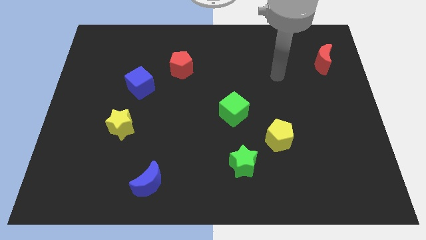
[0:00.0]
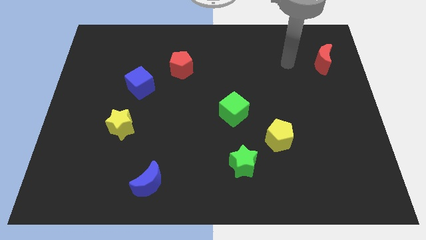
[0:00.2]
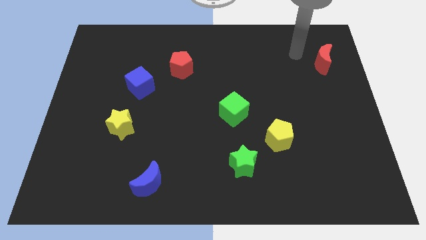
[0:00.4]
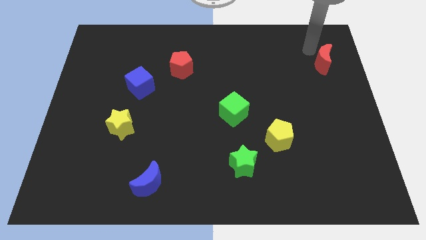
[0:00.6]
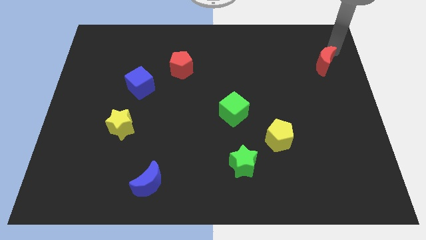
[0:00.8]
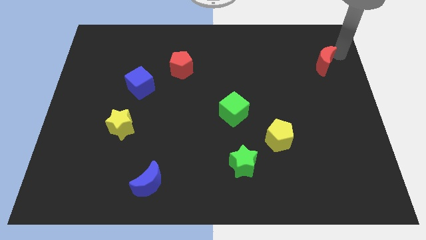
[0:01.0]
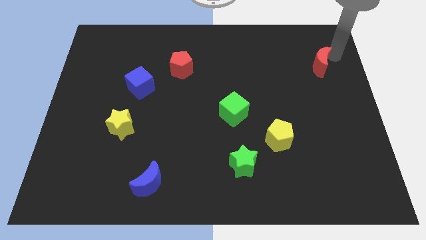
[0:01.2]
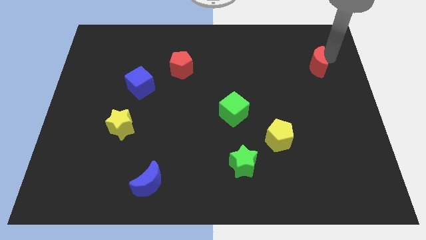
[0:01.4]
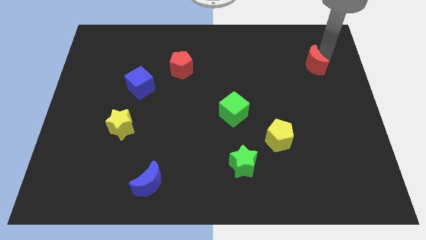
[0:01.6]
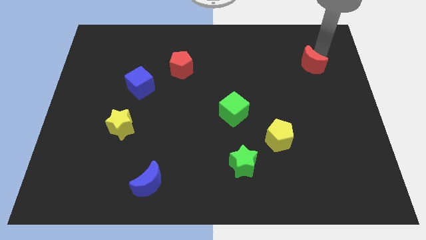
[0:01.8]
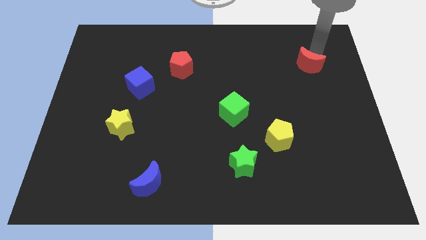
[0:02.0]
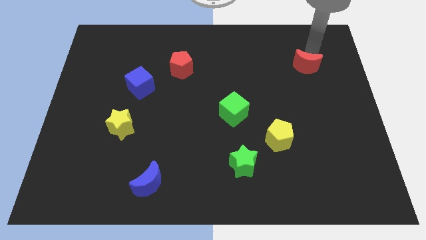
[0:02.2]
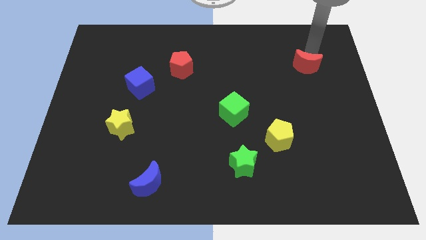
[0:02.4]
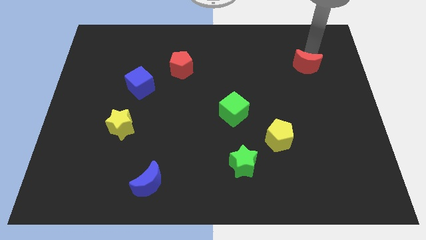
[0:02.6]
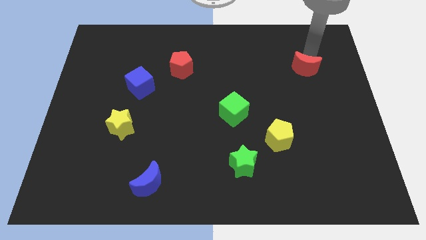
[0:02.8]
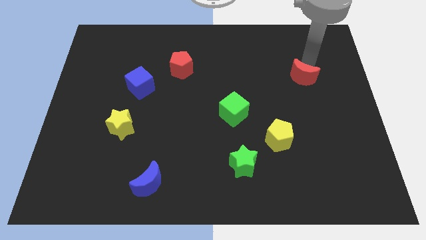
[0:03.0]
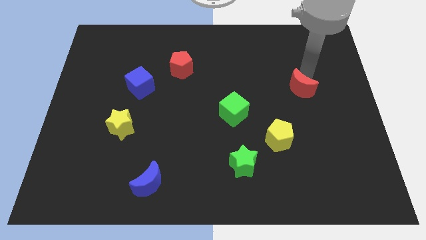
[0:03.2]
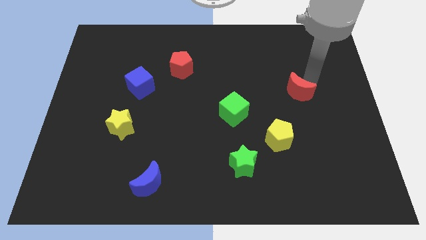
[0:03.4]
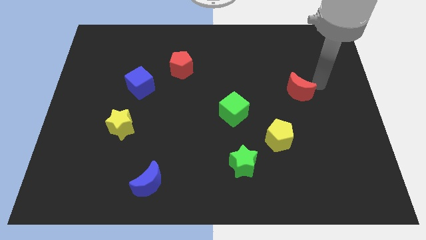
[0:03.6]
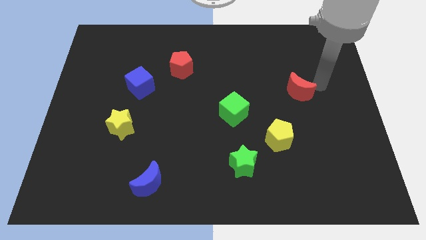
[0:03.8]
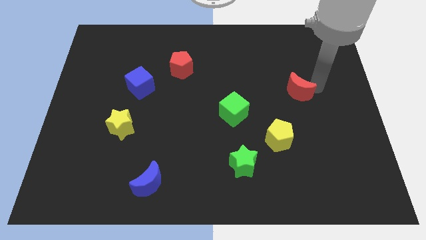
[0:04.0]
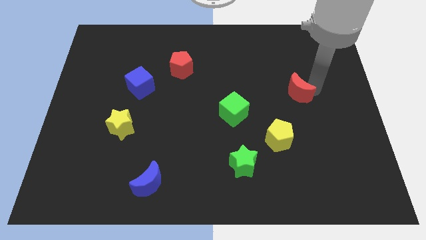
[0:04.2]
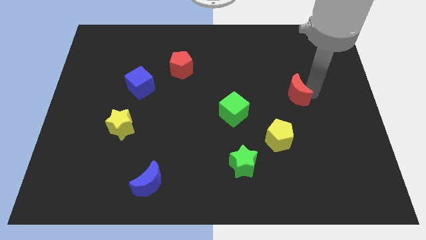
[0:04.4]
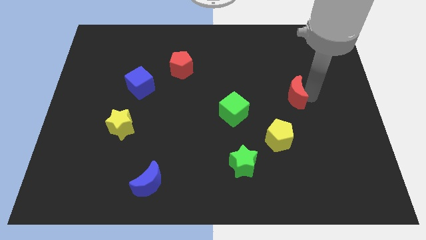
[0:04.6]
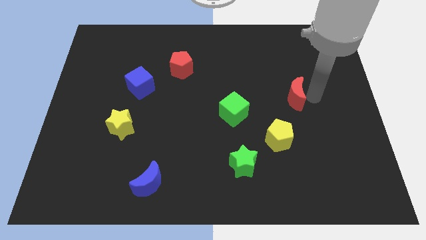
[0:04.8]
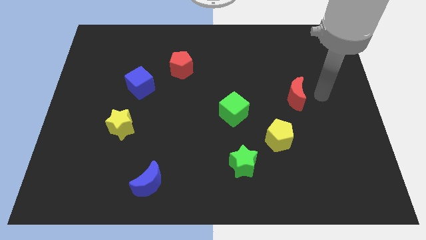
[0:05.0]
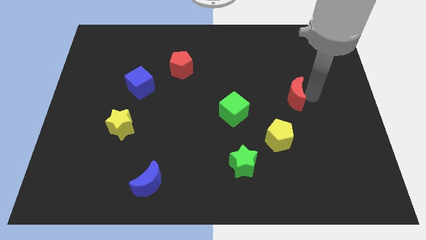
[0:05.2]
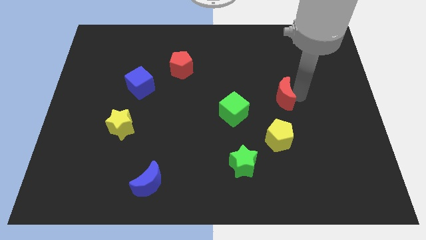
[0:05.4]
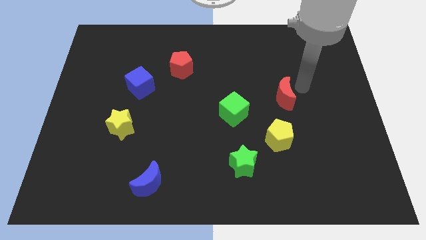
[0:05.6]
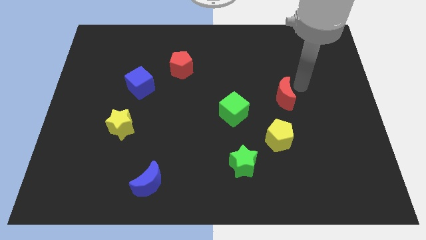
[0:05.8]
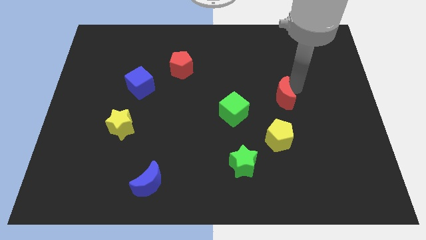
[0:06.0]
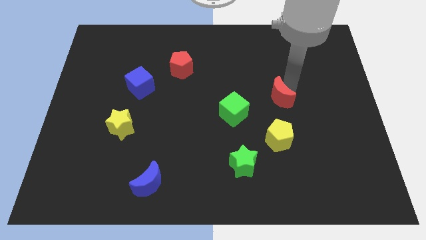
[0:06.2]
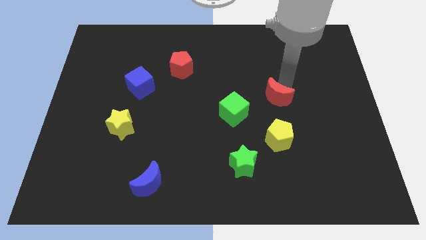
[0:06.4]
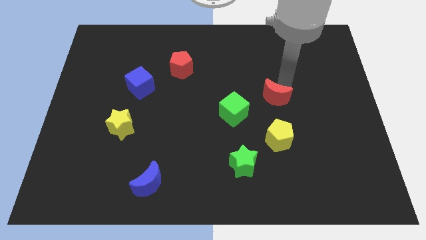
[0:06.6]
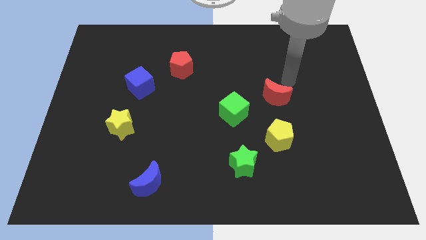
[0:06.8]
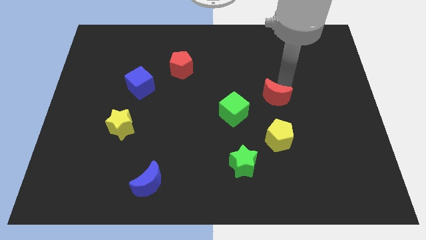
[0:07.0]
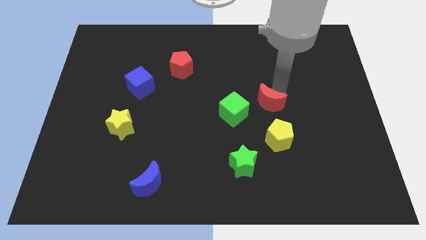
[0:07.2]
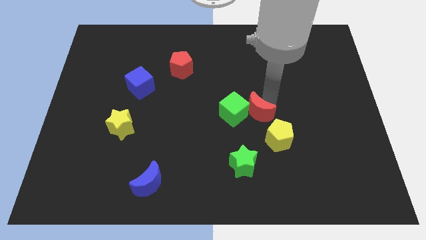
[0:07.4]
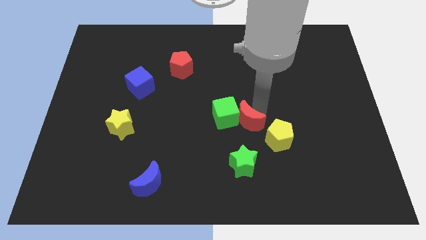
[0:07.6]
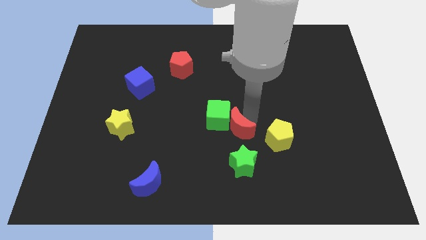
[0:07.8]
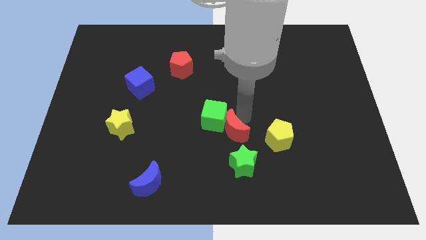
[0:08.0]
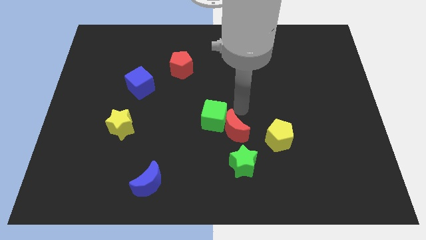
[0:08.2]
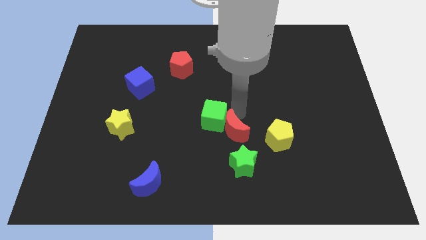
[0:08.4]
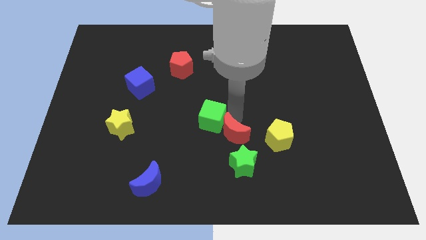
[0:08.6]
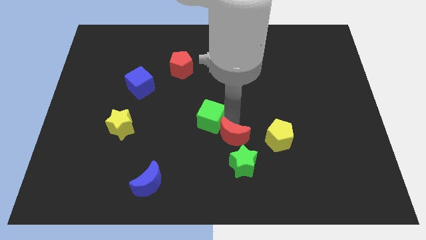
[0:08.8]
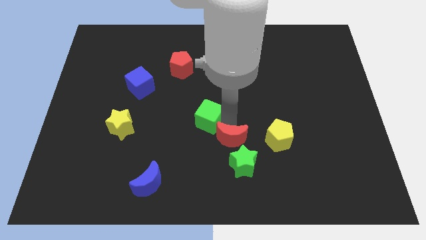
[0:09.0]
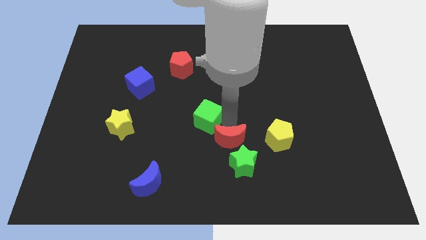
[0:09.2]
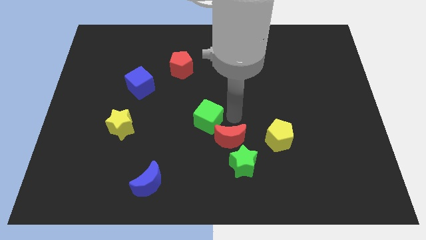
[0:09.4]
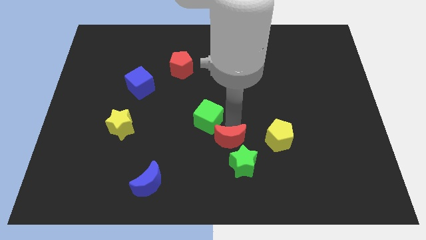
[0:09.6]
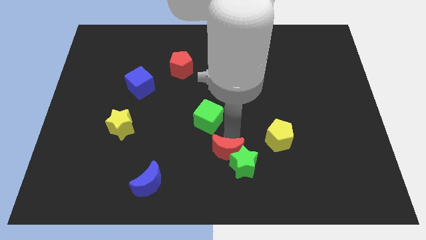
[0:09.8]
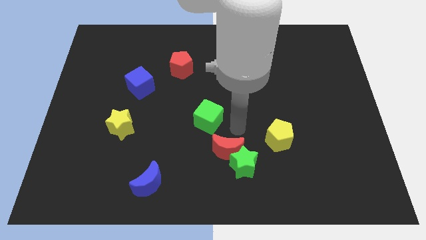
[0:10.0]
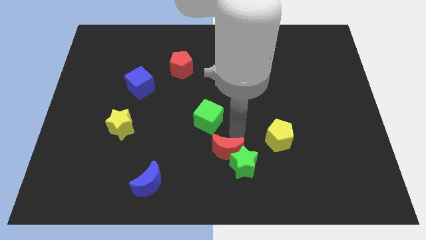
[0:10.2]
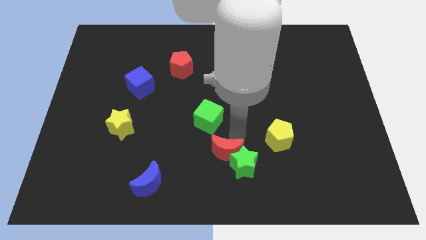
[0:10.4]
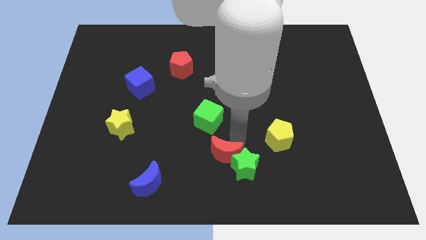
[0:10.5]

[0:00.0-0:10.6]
slide the red moon to the bottom
